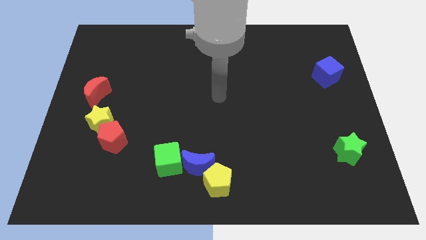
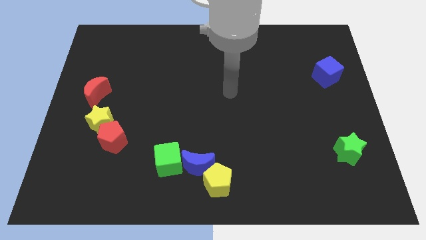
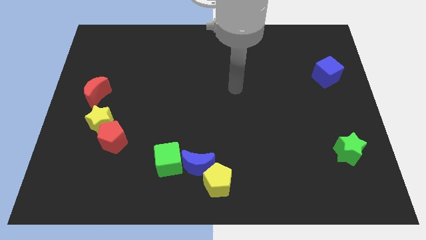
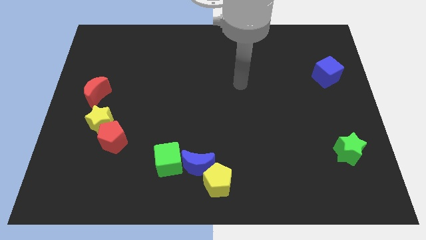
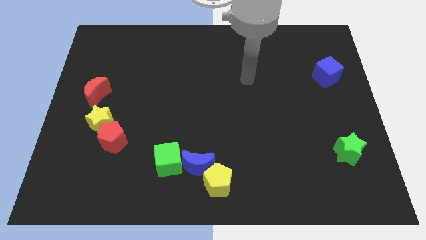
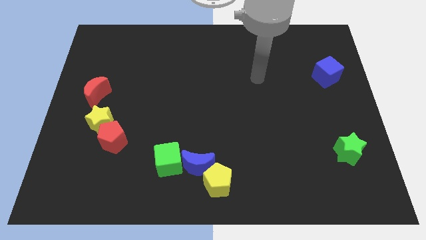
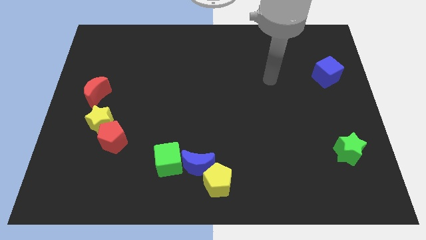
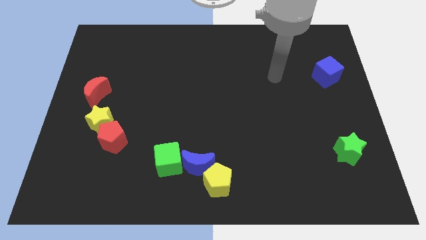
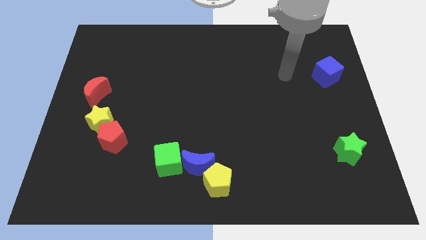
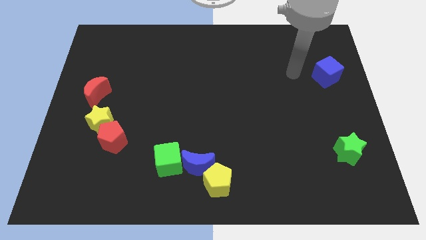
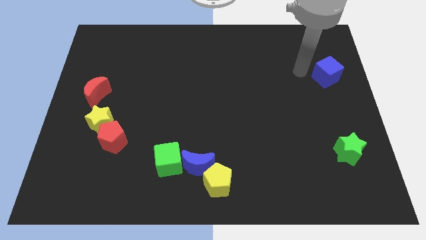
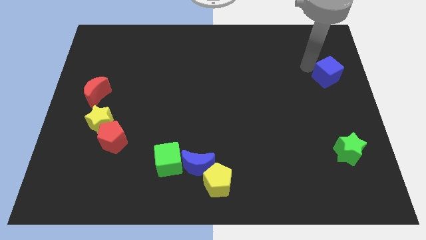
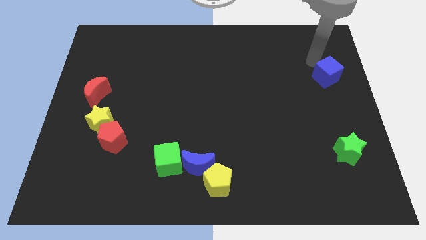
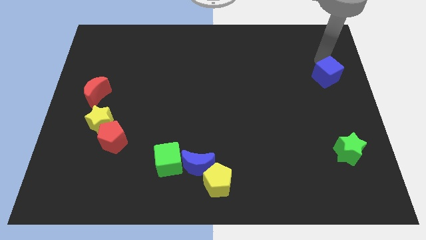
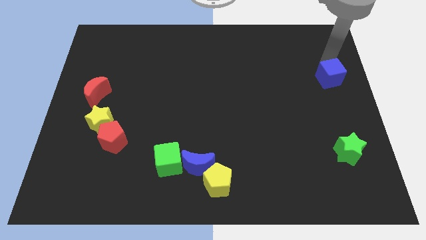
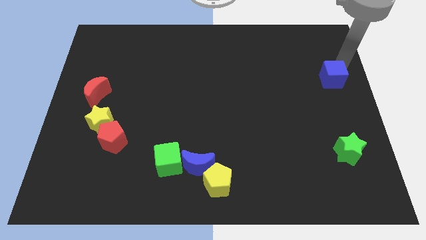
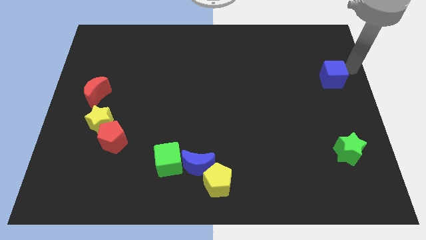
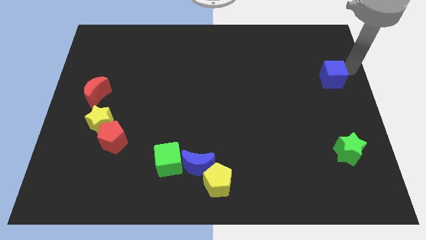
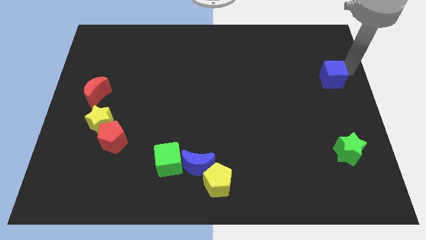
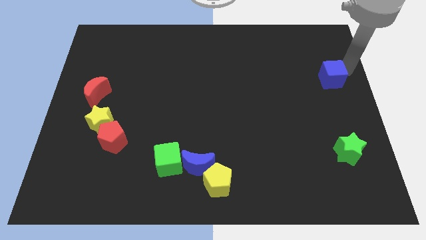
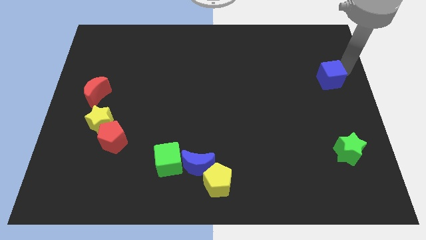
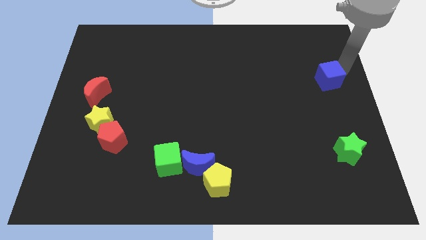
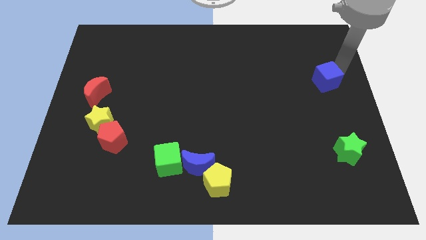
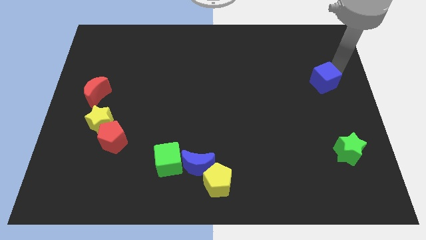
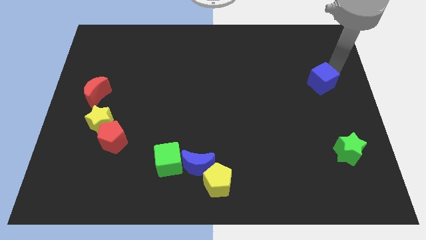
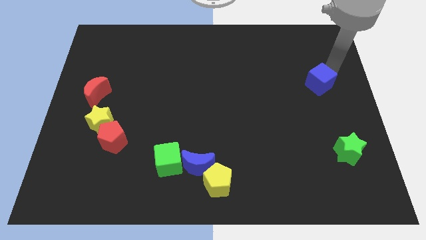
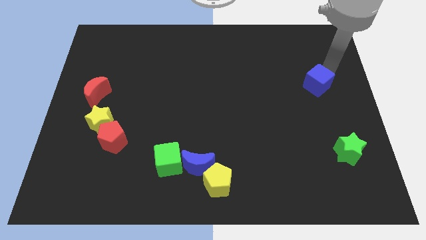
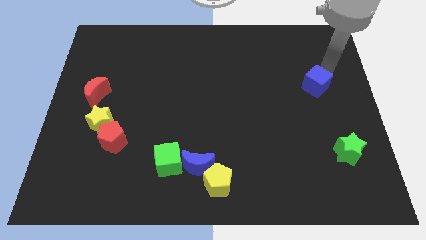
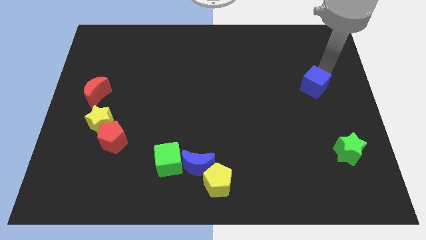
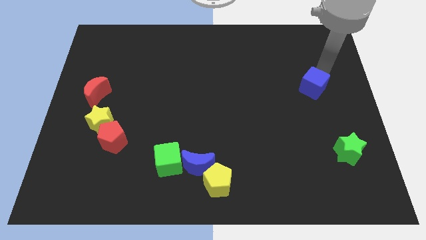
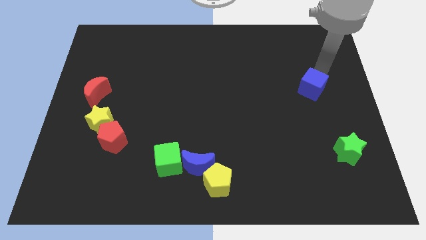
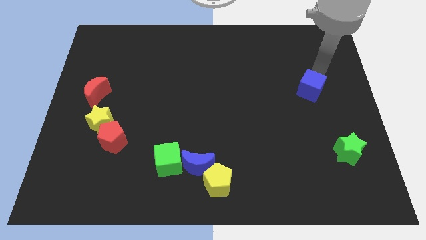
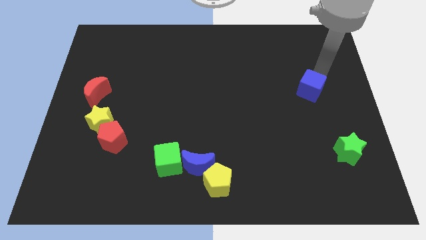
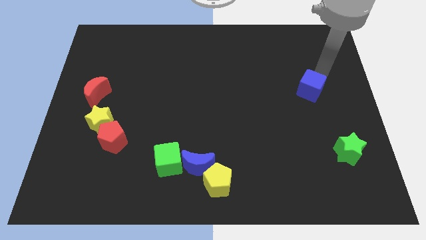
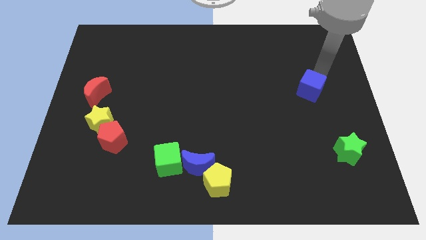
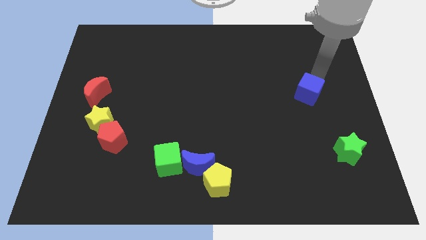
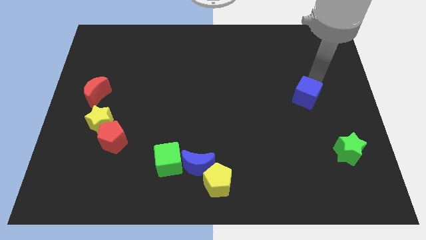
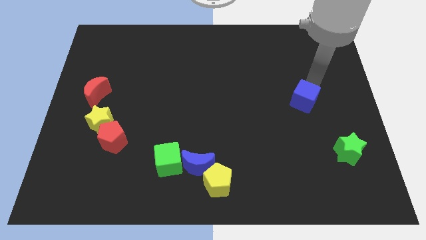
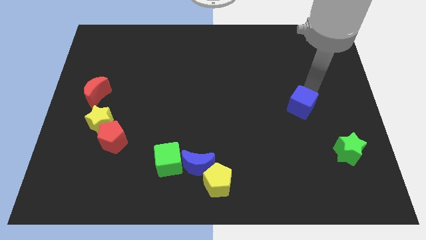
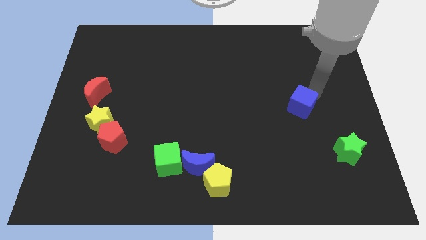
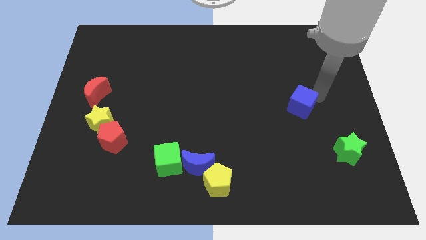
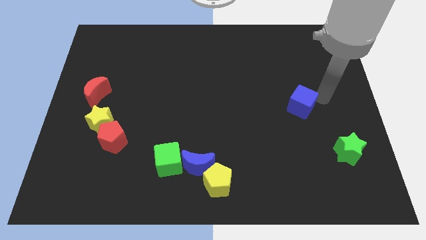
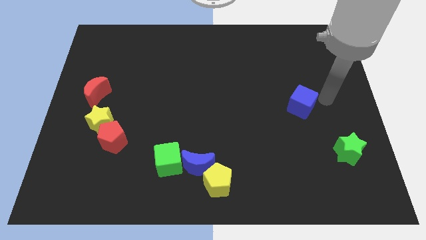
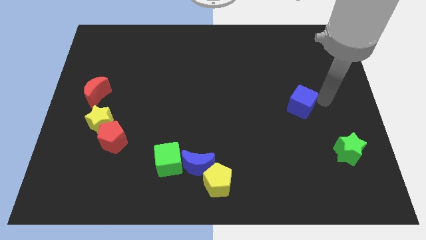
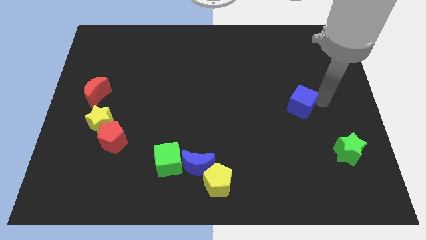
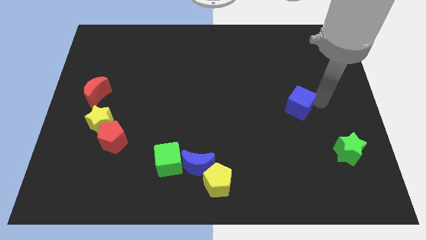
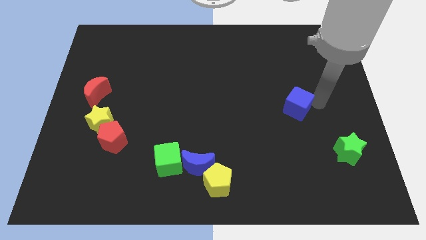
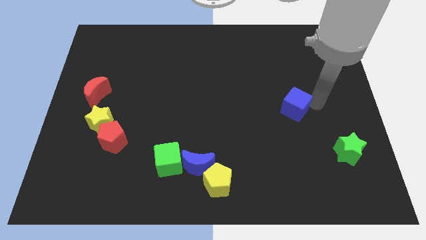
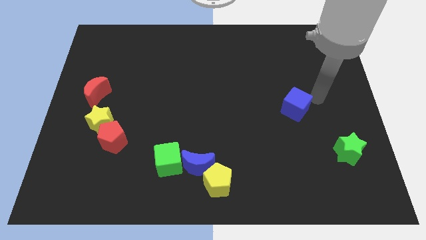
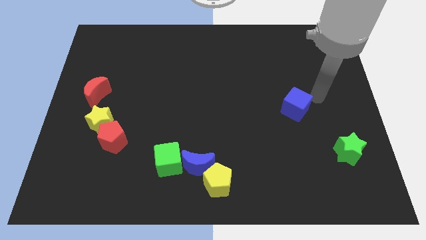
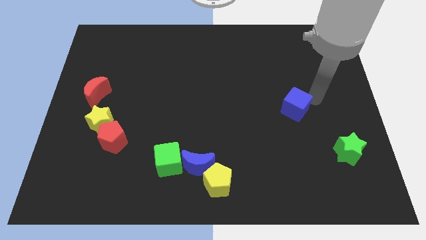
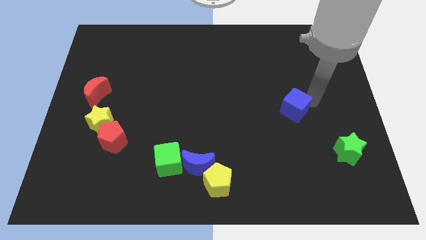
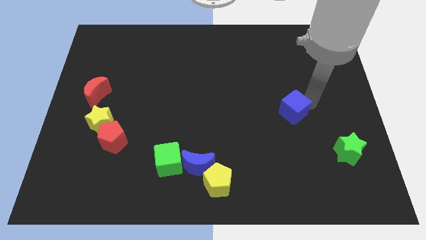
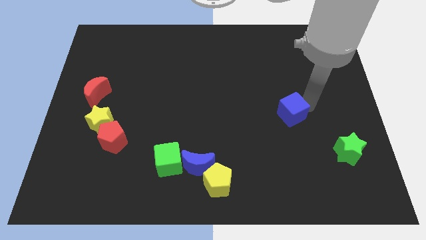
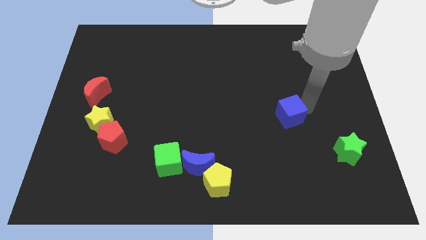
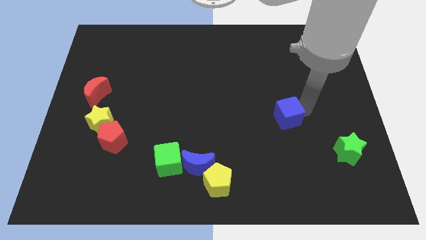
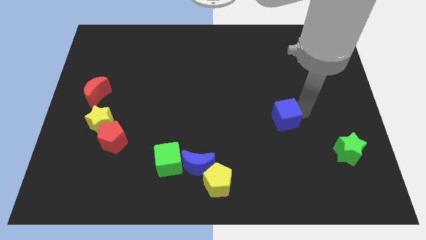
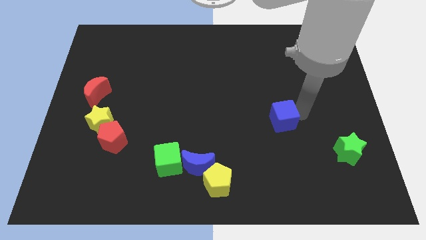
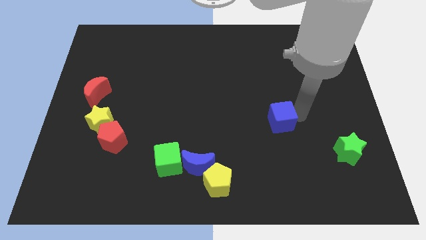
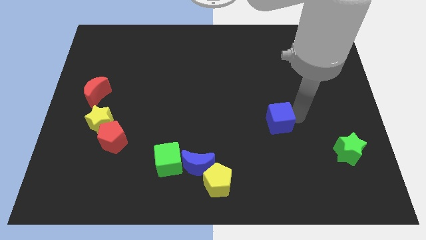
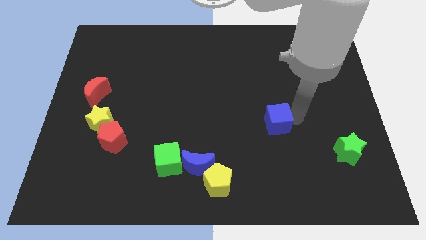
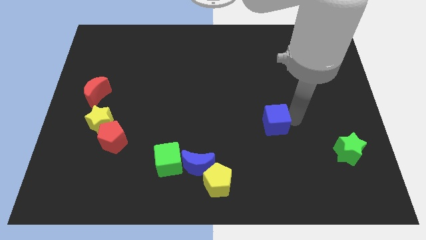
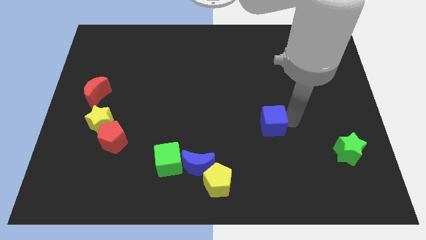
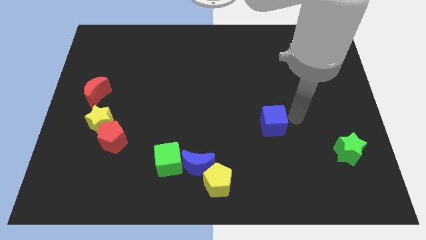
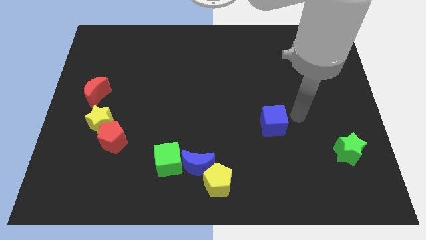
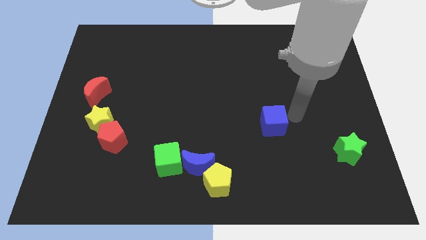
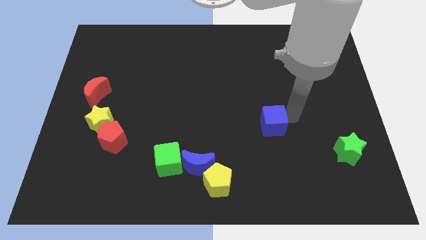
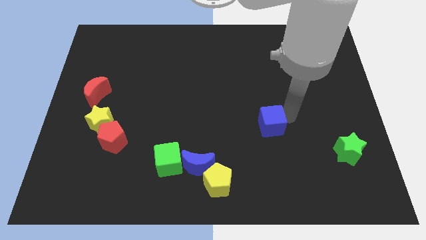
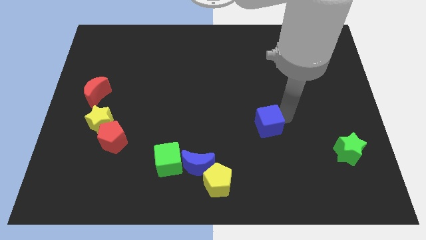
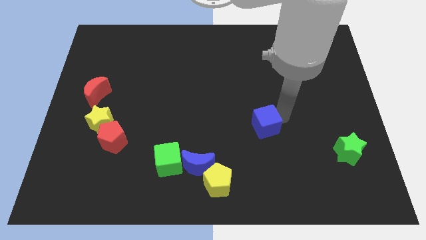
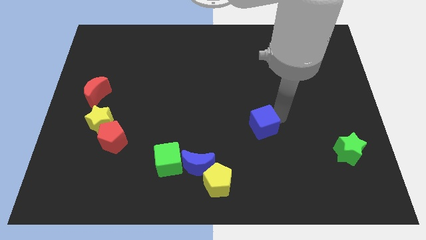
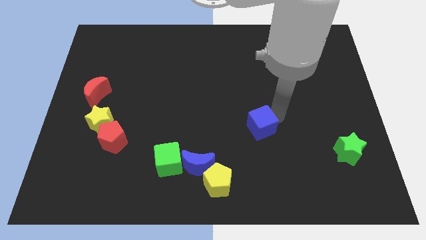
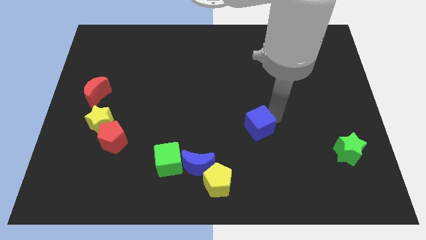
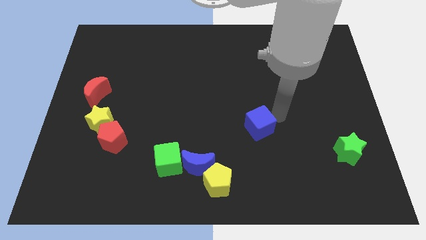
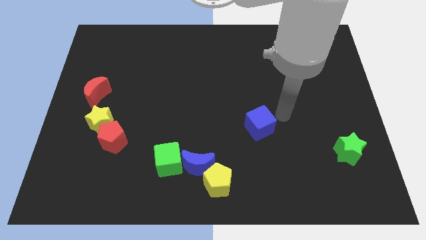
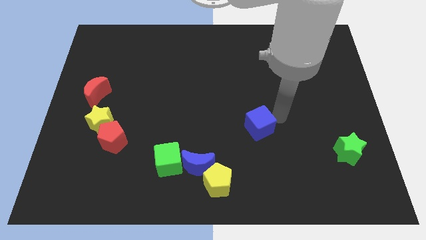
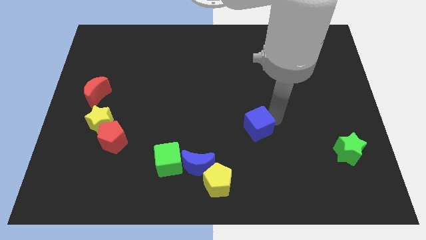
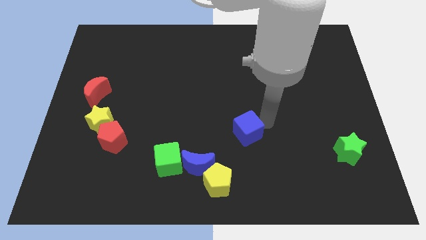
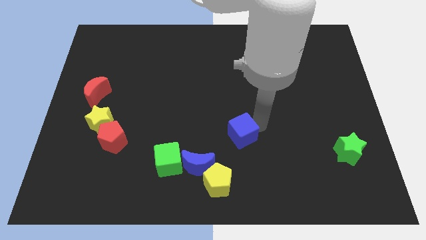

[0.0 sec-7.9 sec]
slide the blue cube to the top right side of the blue moon

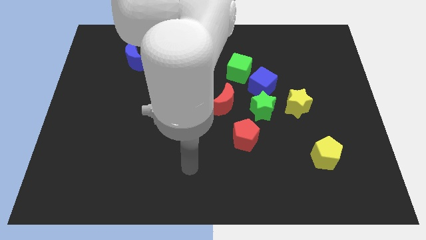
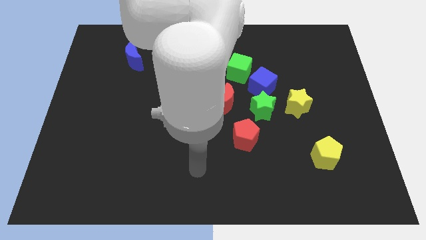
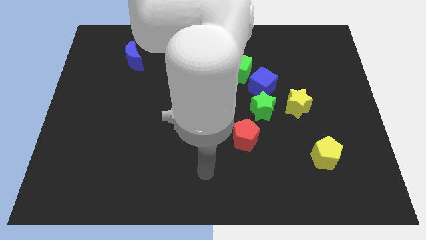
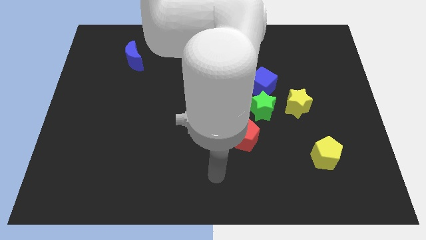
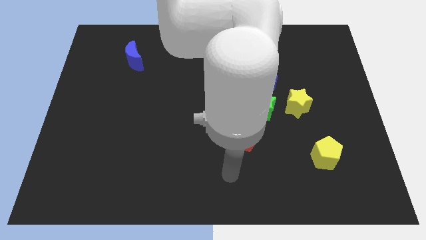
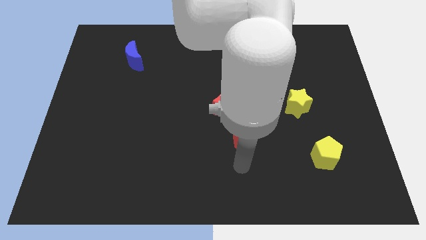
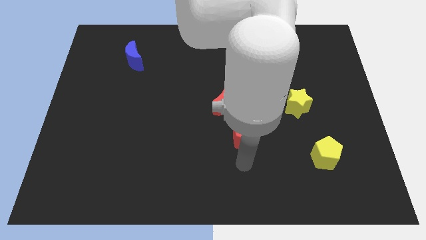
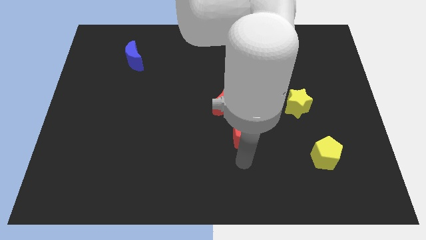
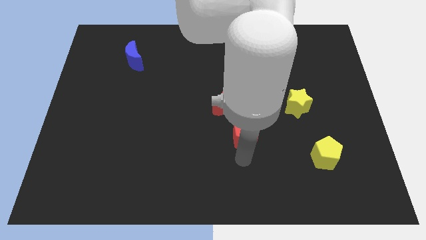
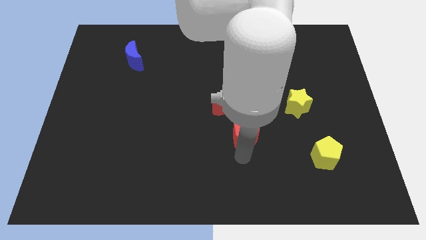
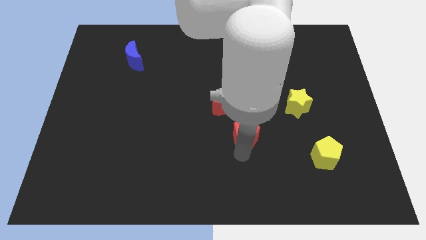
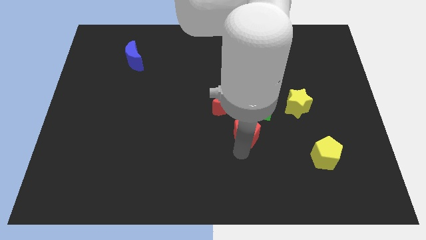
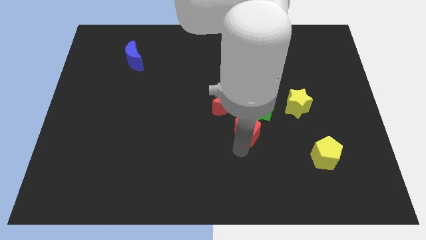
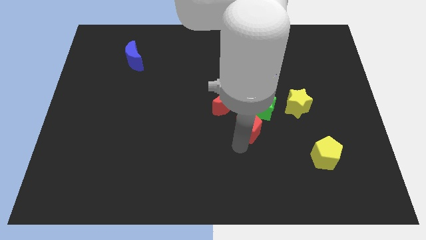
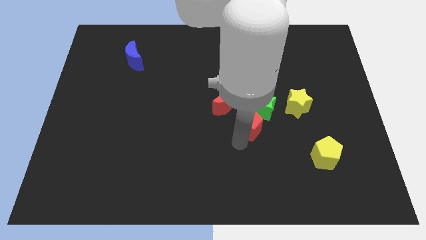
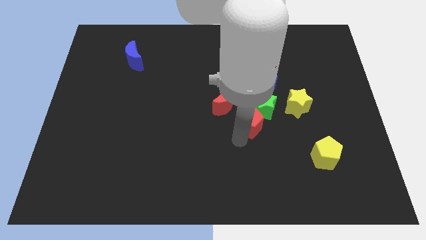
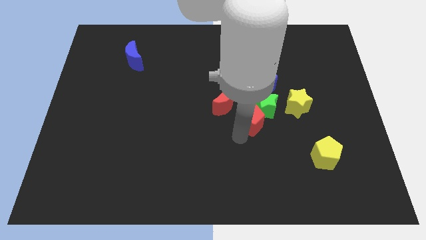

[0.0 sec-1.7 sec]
slide the red pentagon to the bottom of the green cube
